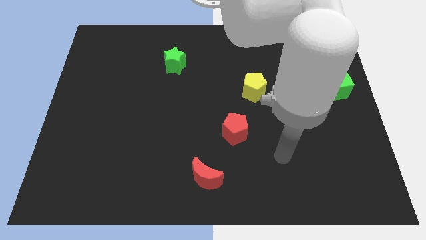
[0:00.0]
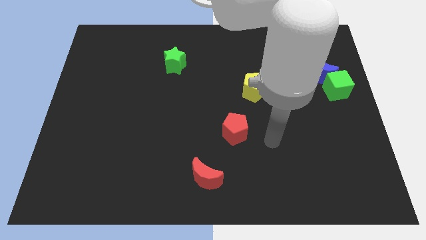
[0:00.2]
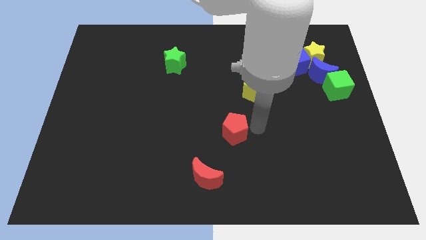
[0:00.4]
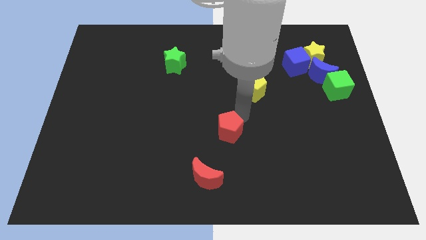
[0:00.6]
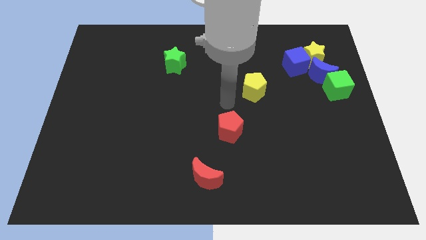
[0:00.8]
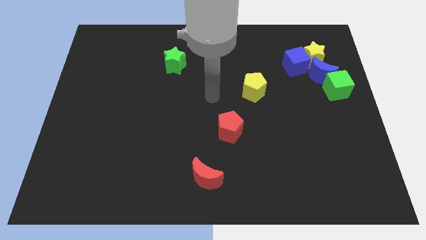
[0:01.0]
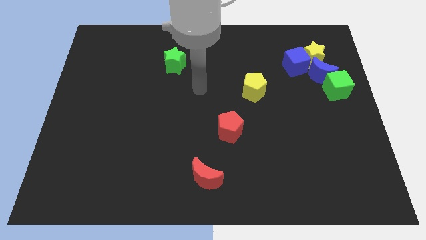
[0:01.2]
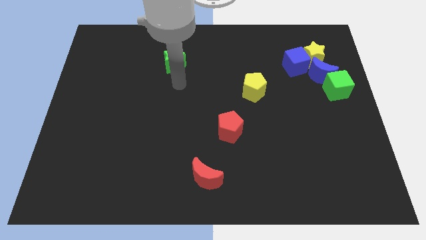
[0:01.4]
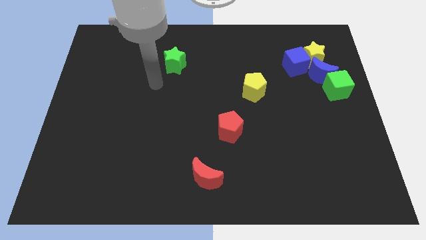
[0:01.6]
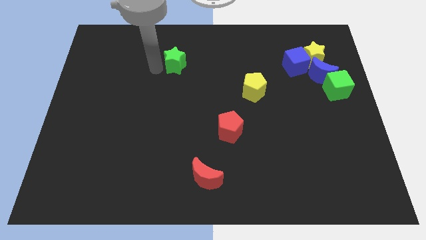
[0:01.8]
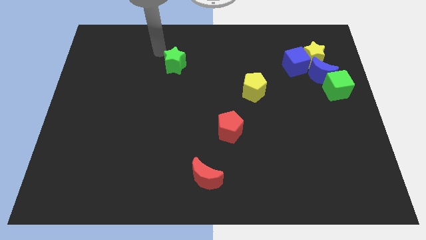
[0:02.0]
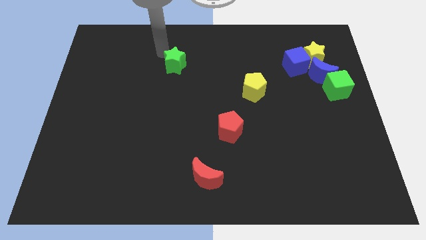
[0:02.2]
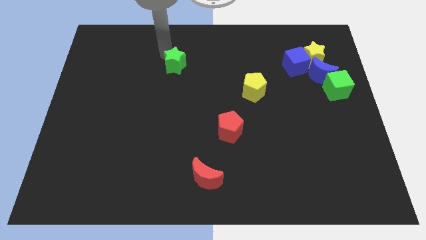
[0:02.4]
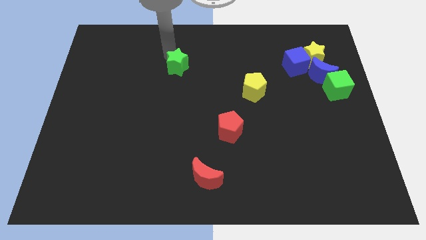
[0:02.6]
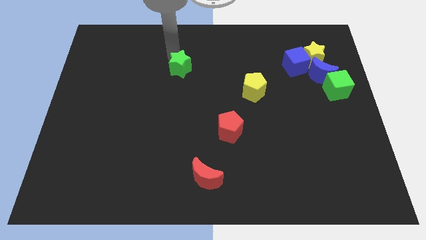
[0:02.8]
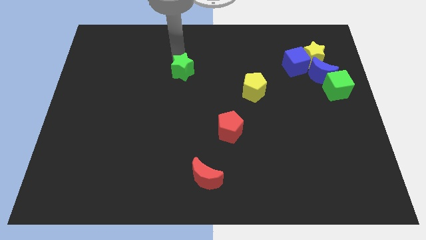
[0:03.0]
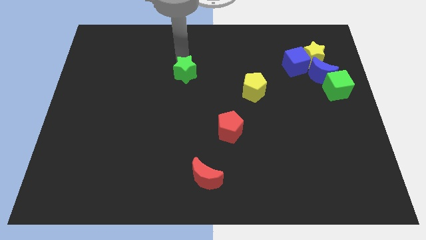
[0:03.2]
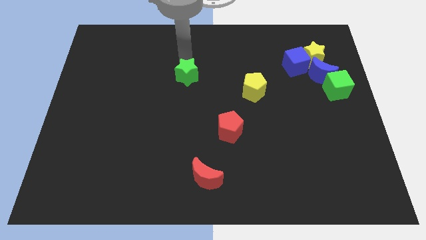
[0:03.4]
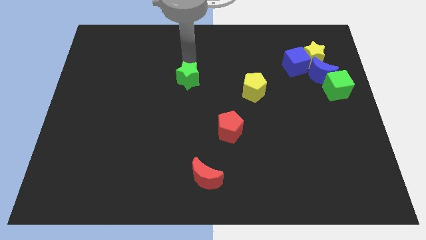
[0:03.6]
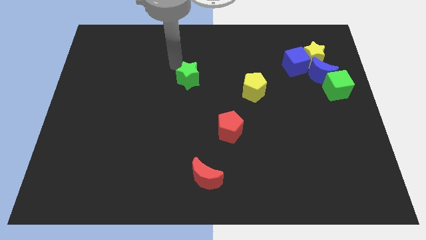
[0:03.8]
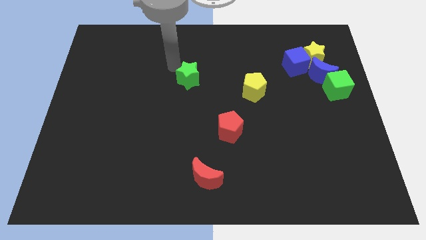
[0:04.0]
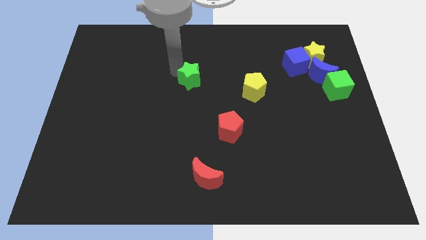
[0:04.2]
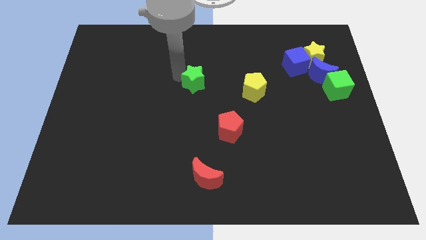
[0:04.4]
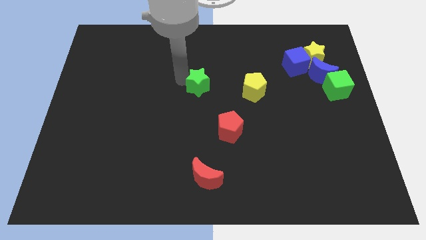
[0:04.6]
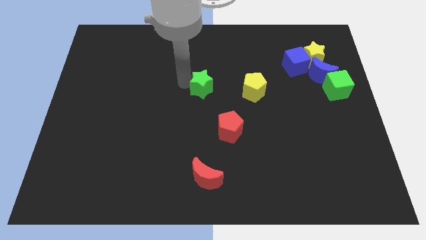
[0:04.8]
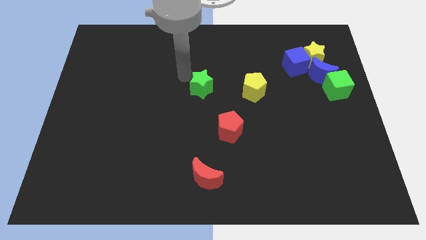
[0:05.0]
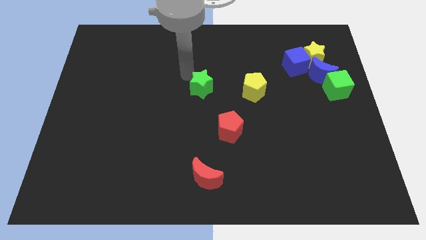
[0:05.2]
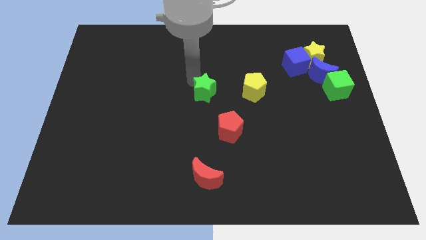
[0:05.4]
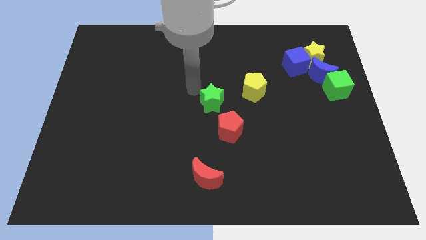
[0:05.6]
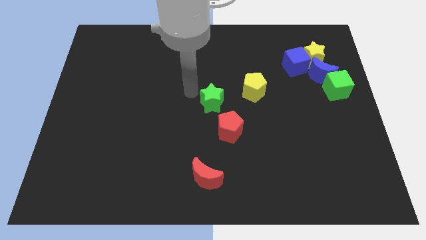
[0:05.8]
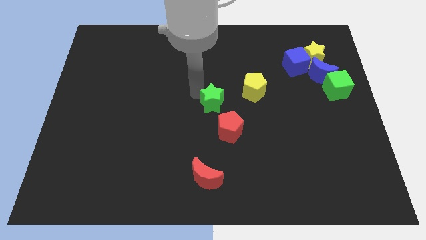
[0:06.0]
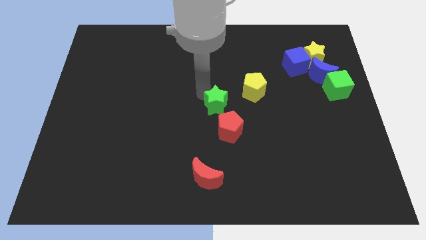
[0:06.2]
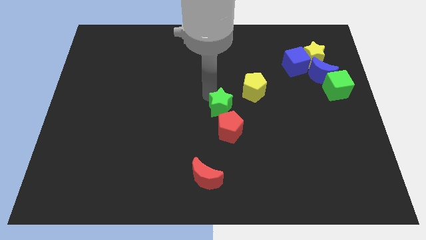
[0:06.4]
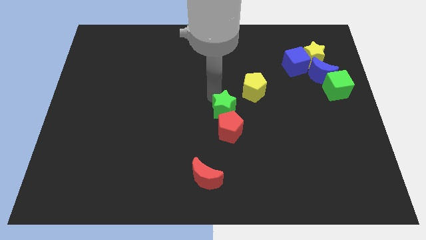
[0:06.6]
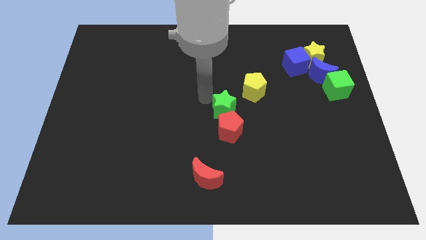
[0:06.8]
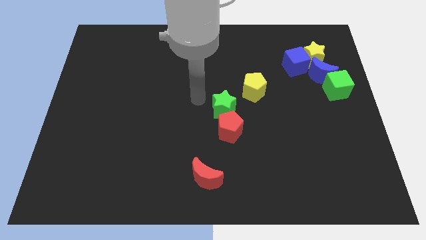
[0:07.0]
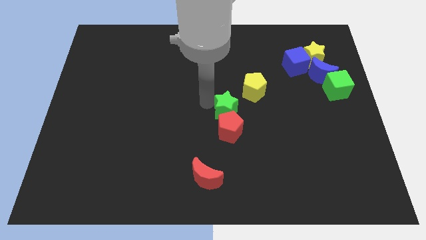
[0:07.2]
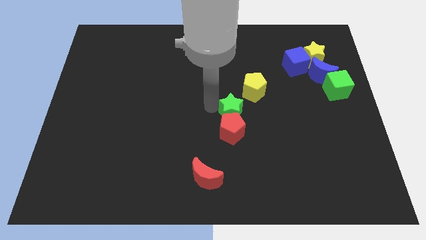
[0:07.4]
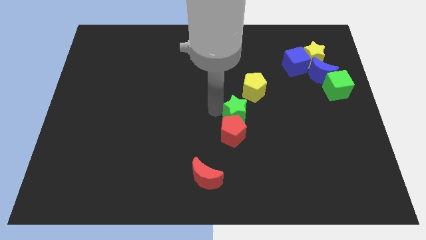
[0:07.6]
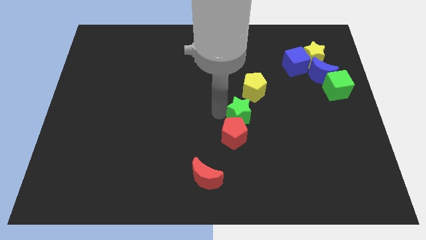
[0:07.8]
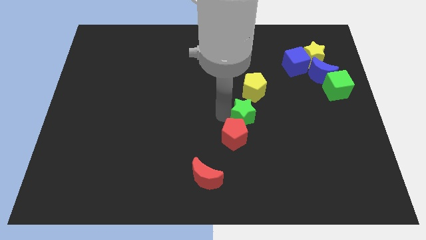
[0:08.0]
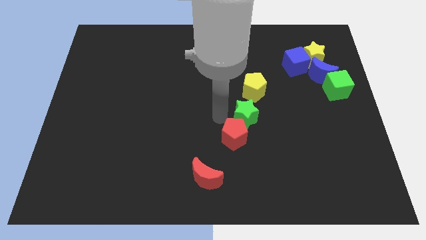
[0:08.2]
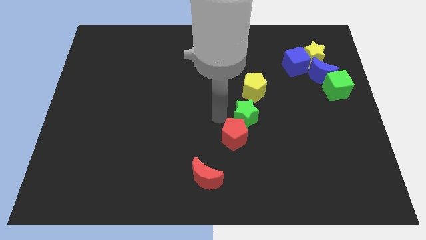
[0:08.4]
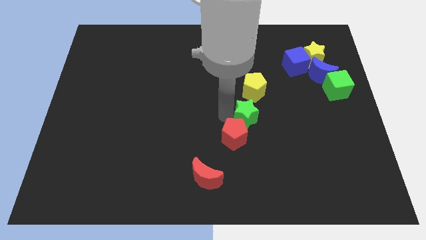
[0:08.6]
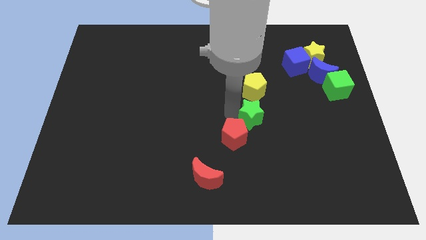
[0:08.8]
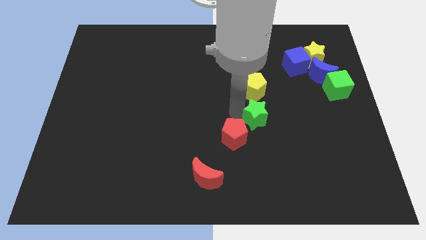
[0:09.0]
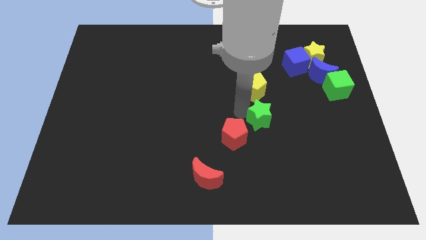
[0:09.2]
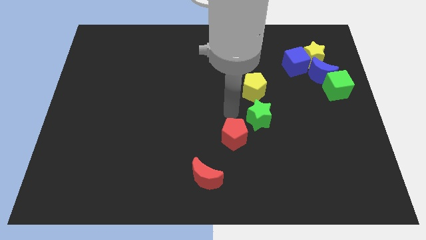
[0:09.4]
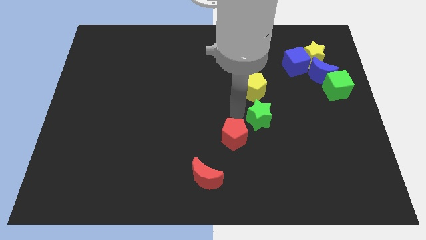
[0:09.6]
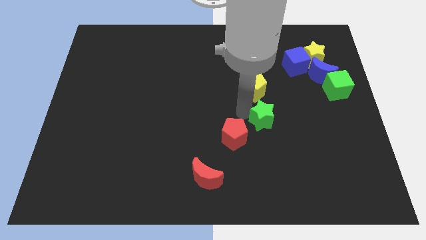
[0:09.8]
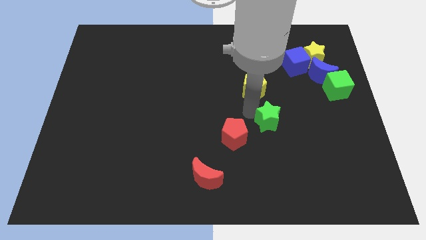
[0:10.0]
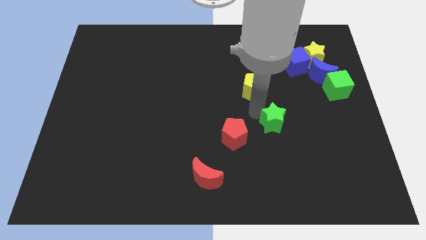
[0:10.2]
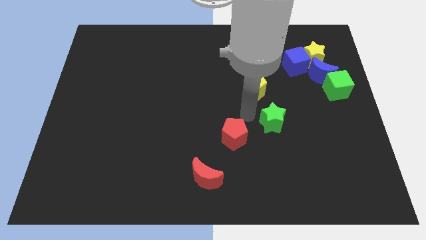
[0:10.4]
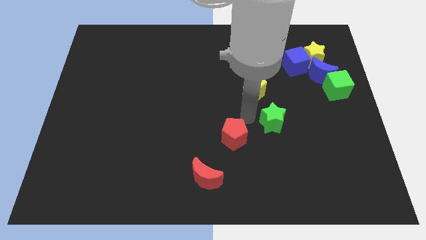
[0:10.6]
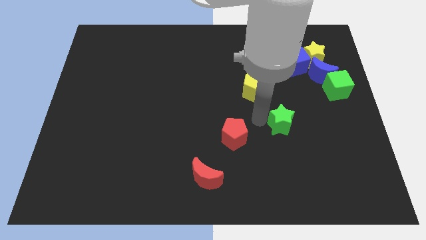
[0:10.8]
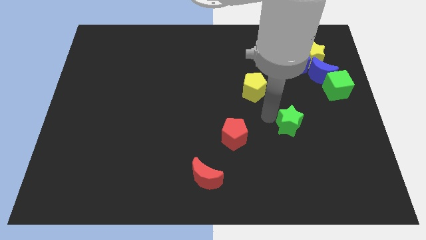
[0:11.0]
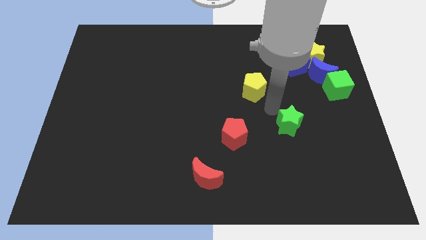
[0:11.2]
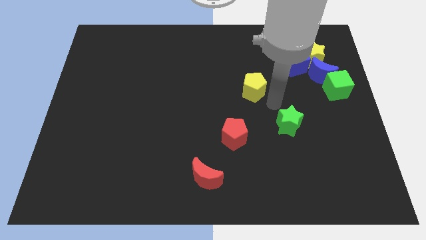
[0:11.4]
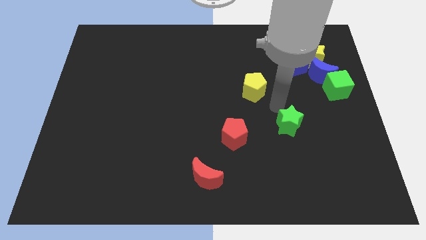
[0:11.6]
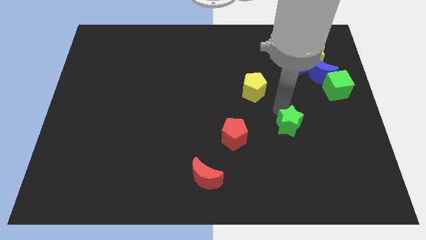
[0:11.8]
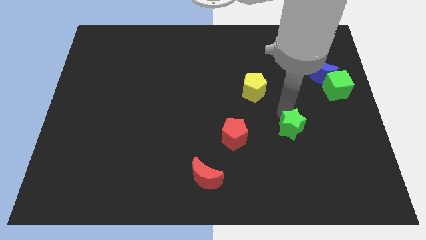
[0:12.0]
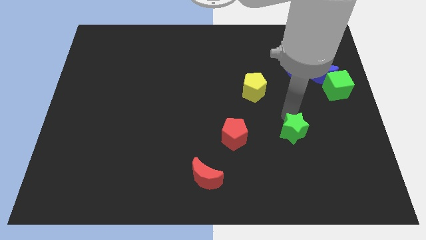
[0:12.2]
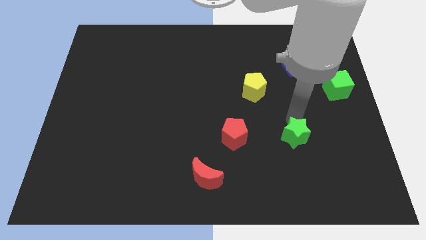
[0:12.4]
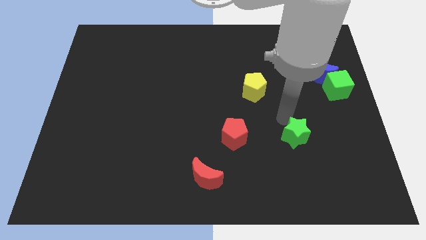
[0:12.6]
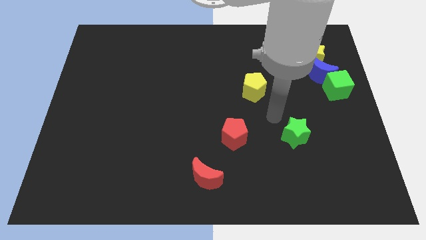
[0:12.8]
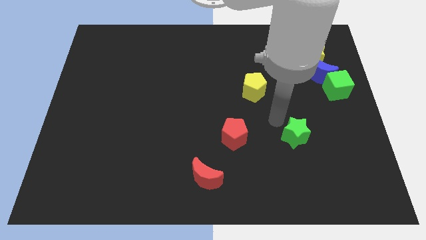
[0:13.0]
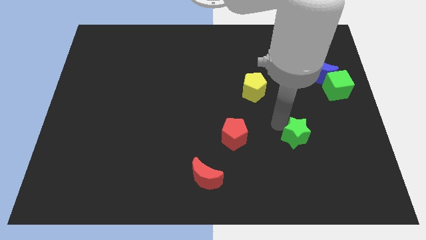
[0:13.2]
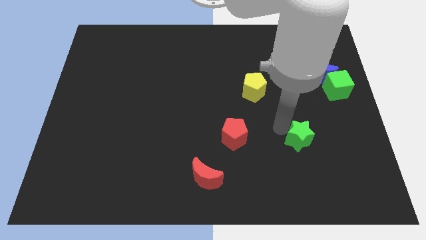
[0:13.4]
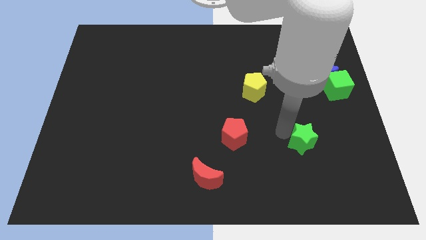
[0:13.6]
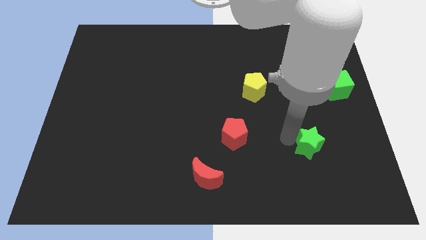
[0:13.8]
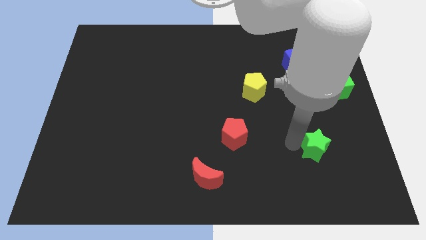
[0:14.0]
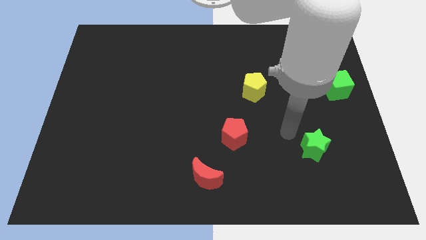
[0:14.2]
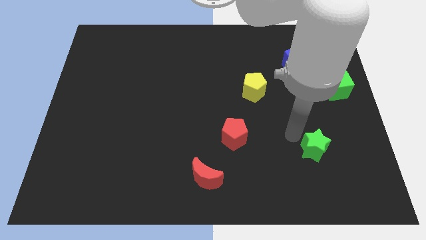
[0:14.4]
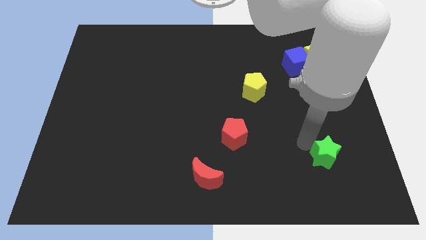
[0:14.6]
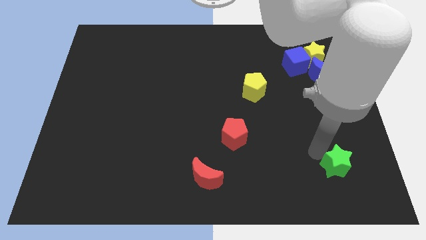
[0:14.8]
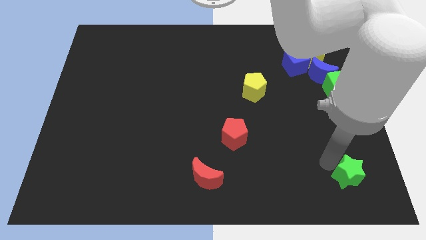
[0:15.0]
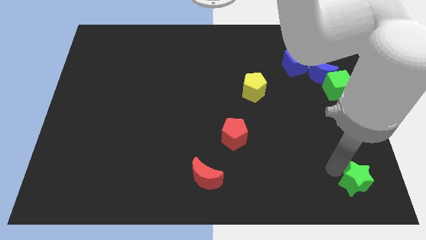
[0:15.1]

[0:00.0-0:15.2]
put the green star to the bottom right corner
